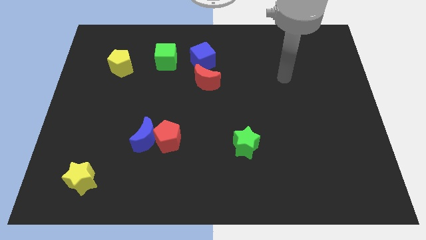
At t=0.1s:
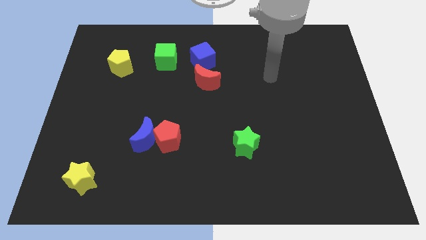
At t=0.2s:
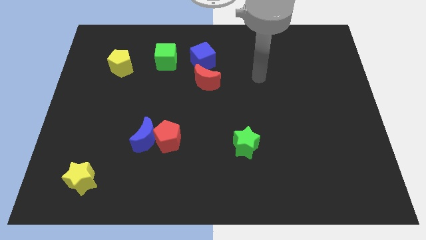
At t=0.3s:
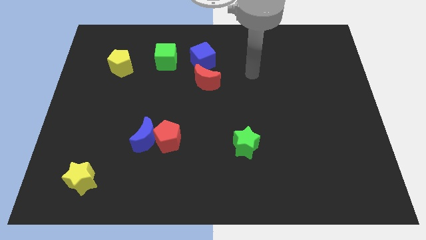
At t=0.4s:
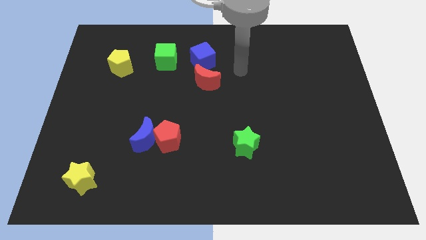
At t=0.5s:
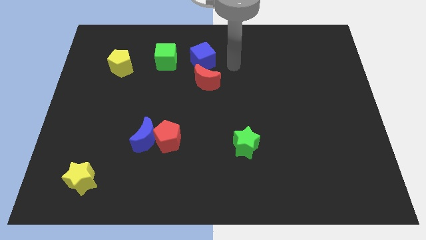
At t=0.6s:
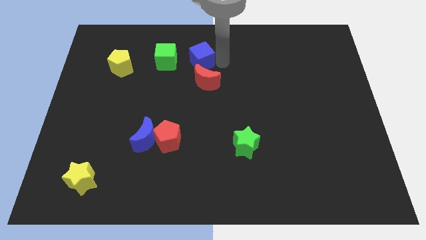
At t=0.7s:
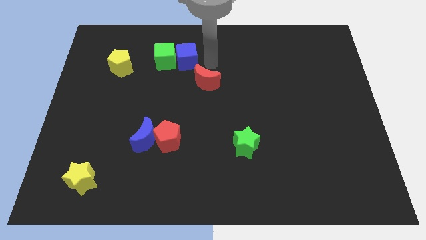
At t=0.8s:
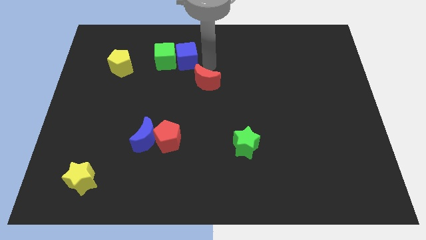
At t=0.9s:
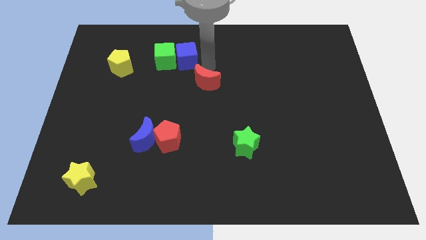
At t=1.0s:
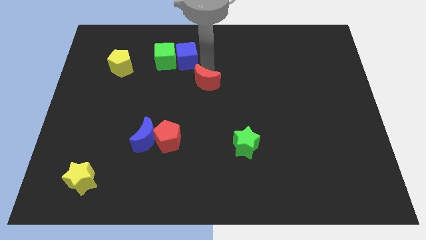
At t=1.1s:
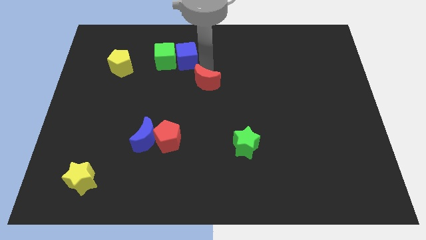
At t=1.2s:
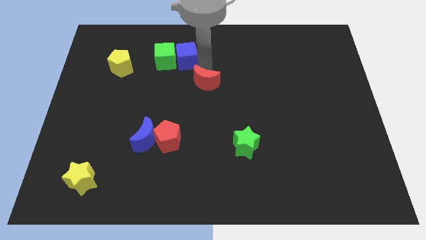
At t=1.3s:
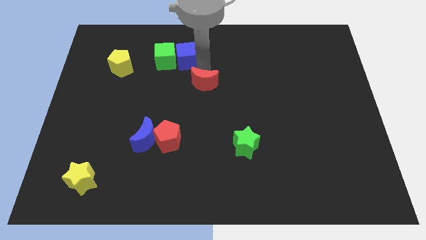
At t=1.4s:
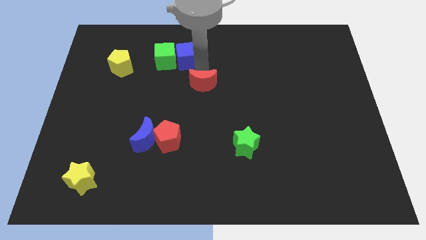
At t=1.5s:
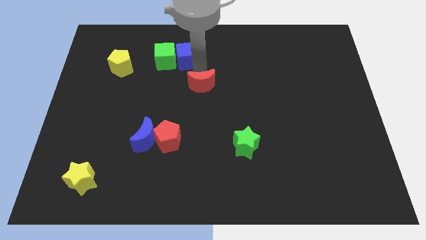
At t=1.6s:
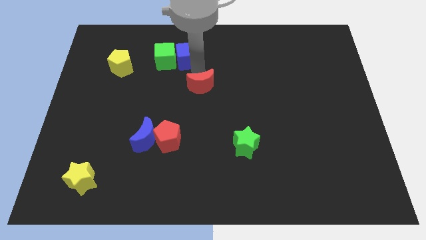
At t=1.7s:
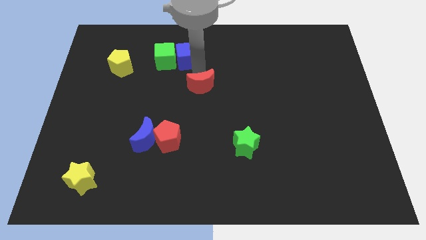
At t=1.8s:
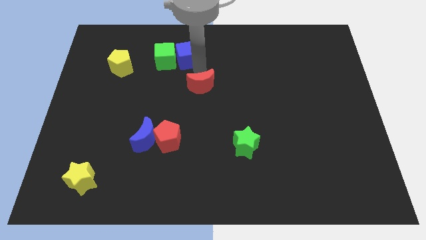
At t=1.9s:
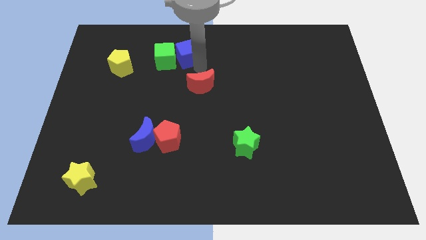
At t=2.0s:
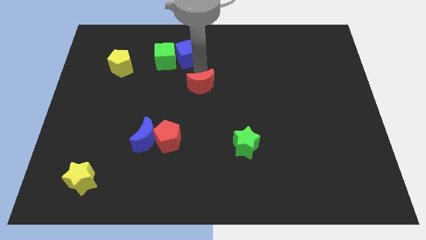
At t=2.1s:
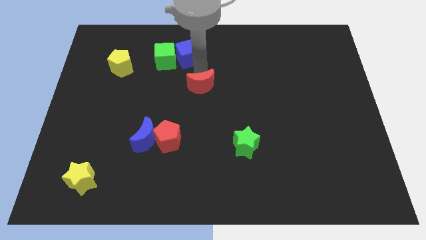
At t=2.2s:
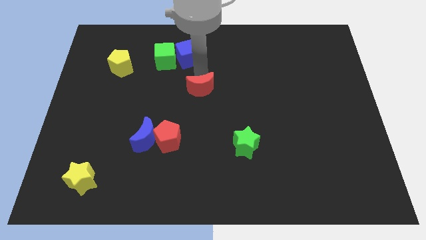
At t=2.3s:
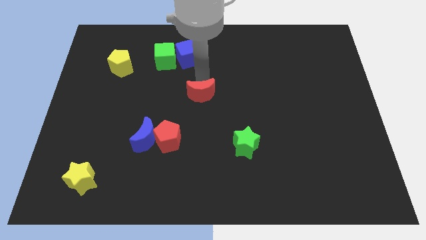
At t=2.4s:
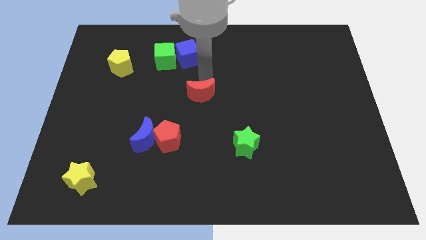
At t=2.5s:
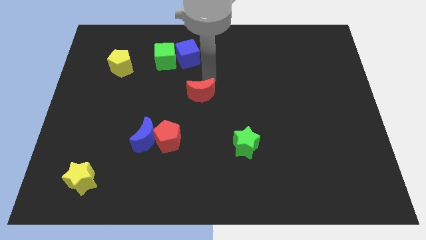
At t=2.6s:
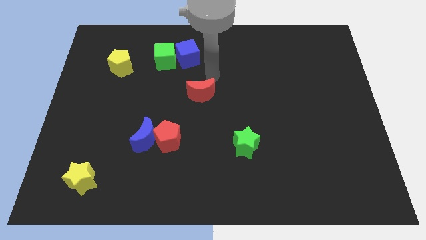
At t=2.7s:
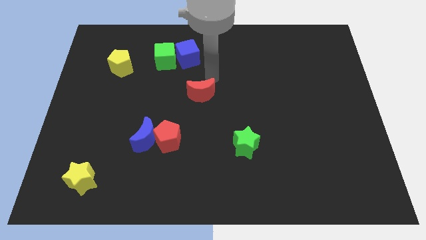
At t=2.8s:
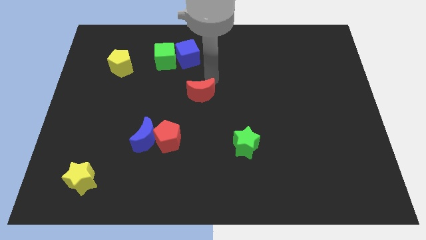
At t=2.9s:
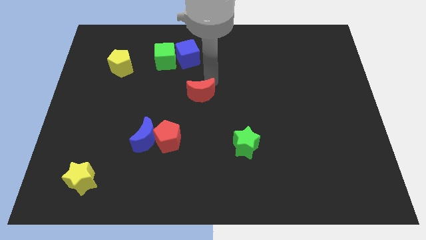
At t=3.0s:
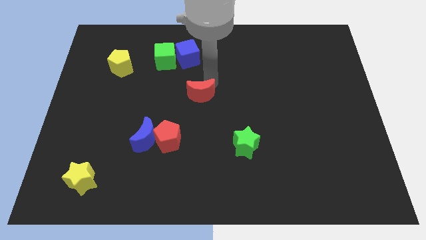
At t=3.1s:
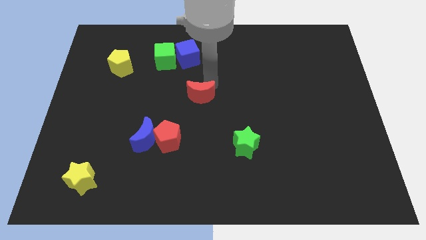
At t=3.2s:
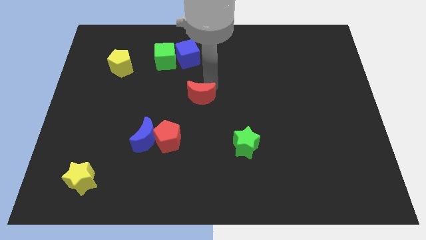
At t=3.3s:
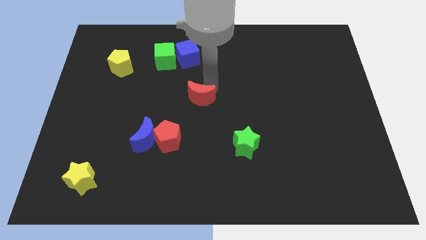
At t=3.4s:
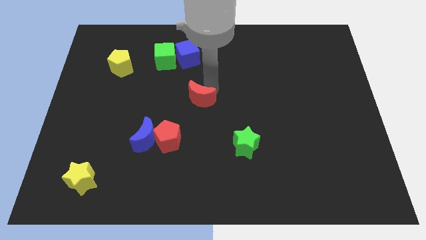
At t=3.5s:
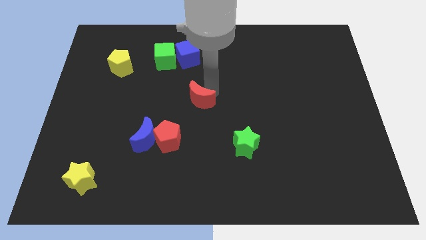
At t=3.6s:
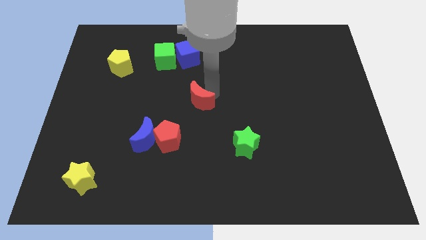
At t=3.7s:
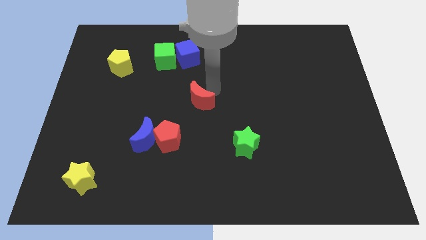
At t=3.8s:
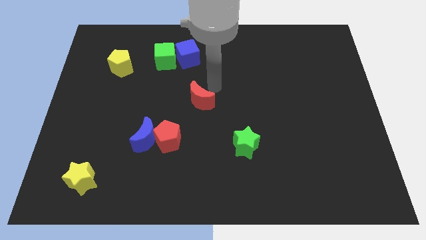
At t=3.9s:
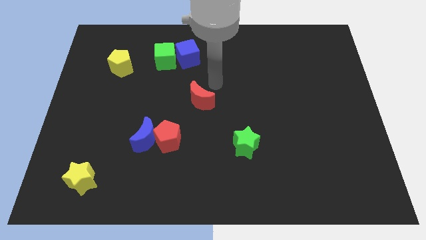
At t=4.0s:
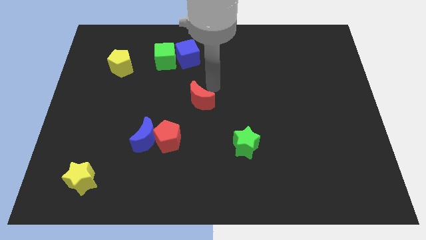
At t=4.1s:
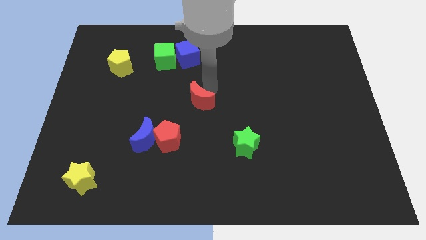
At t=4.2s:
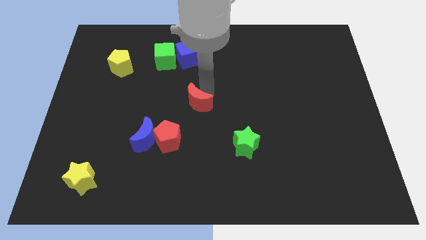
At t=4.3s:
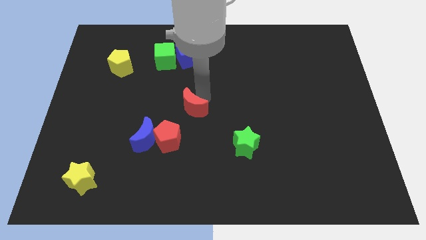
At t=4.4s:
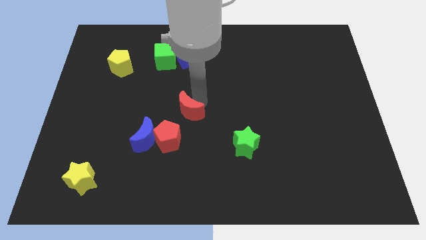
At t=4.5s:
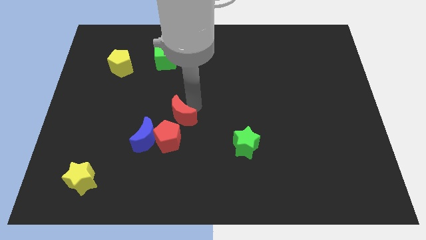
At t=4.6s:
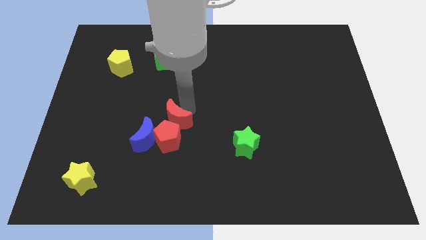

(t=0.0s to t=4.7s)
put the red moon close to the red pentagon

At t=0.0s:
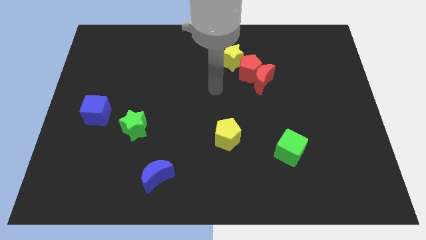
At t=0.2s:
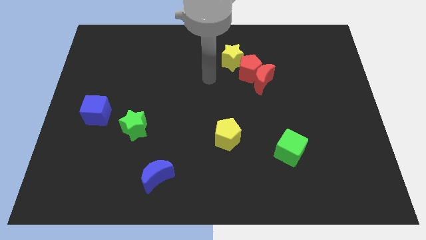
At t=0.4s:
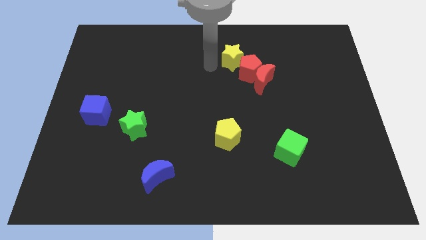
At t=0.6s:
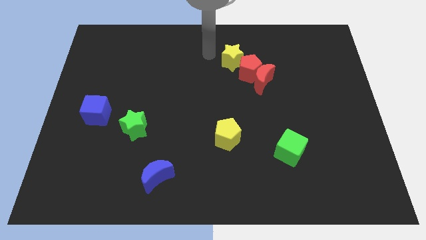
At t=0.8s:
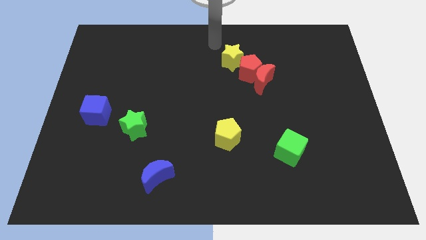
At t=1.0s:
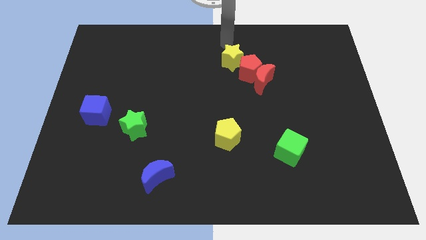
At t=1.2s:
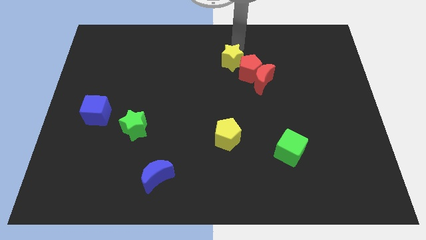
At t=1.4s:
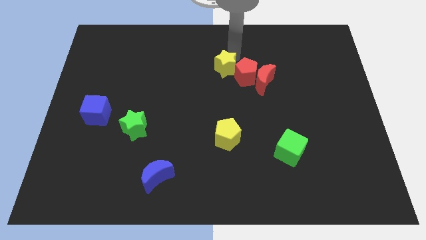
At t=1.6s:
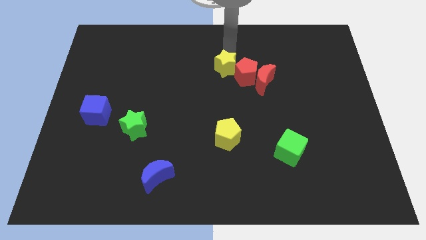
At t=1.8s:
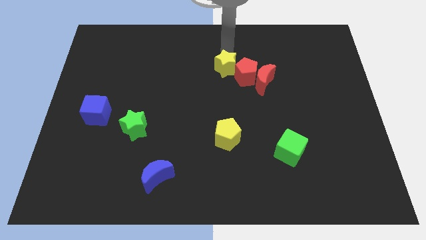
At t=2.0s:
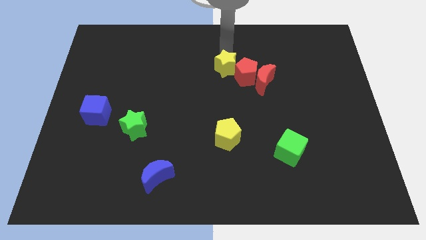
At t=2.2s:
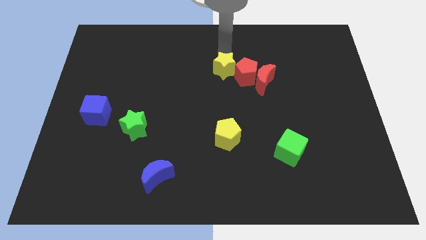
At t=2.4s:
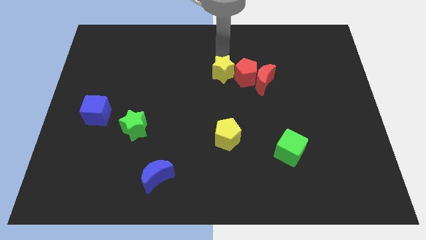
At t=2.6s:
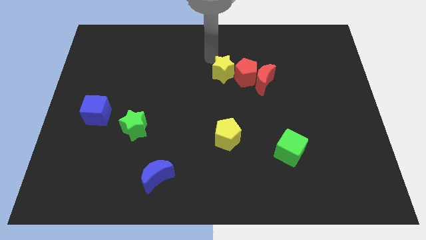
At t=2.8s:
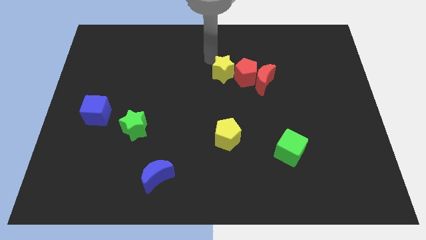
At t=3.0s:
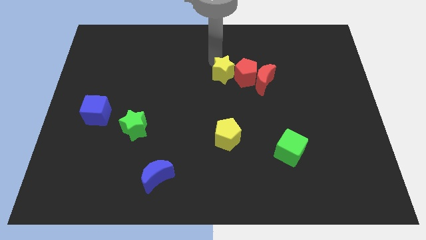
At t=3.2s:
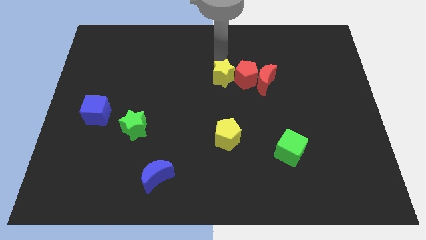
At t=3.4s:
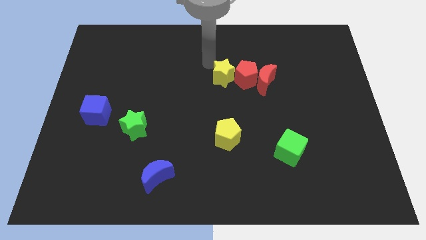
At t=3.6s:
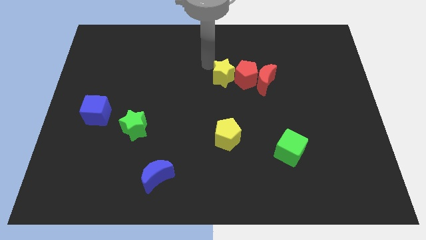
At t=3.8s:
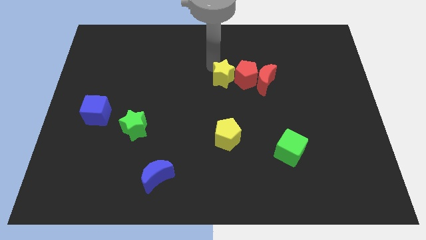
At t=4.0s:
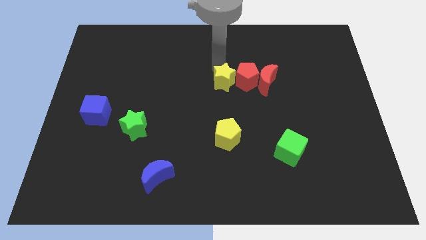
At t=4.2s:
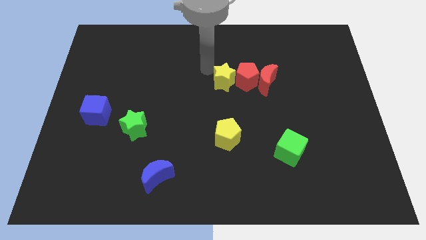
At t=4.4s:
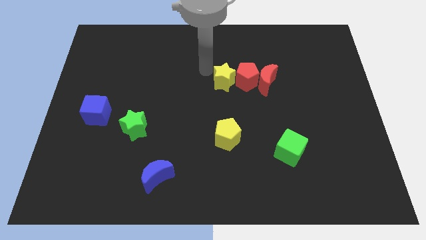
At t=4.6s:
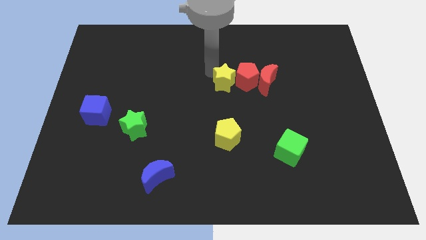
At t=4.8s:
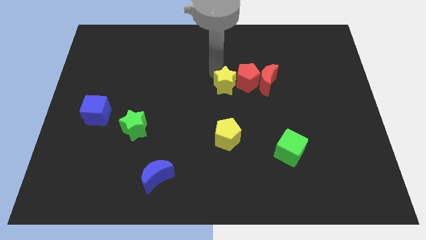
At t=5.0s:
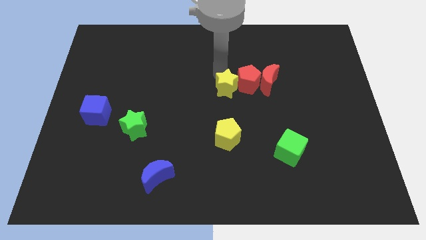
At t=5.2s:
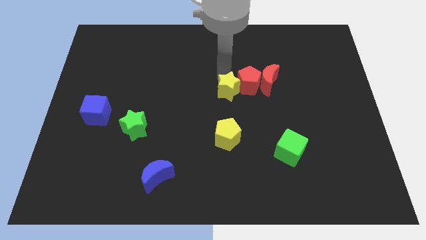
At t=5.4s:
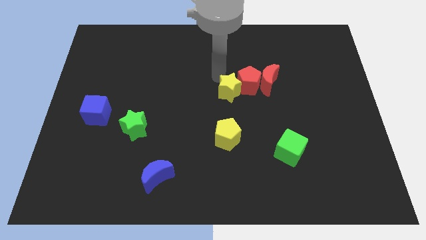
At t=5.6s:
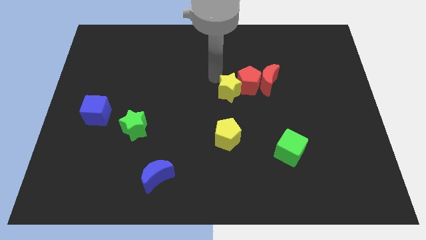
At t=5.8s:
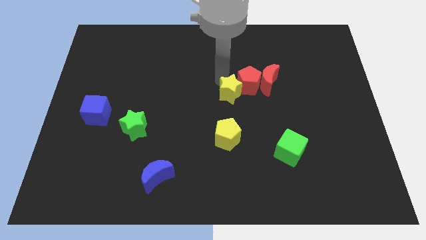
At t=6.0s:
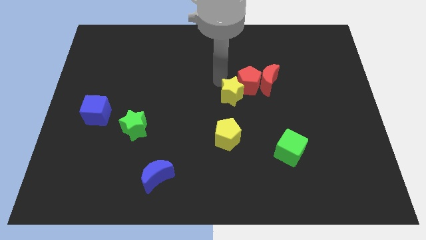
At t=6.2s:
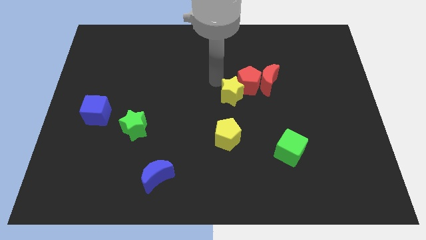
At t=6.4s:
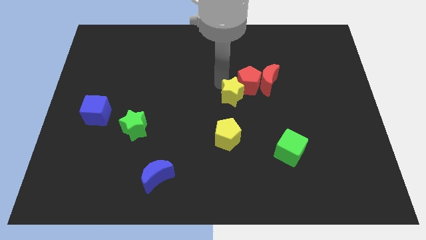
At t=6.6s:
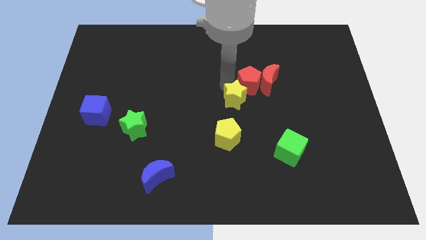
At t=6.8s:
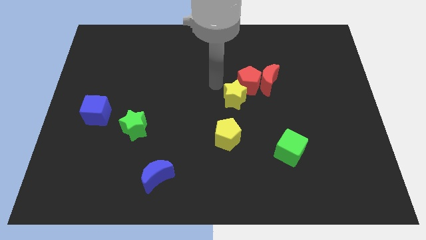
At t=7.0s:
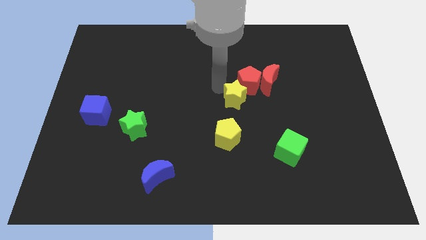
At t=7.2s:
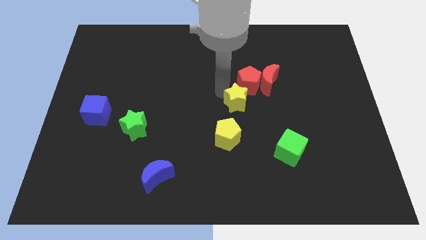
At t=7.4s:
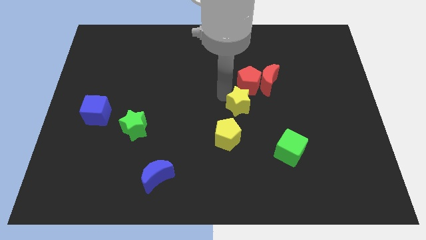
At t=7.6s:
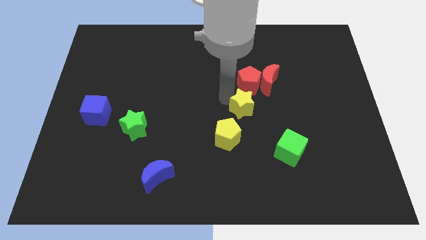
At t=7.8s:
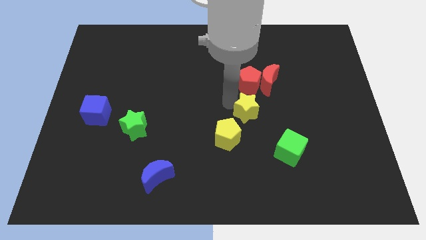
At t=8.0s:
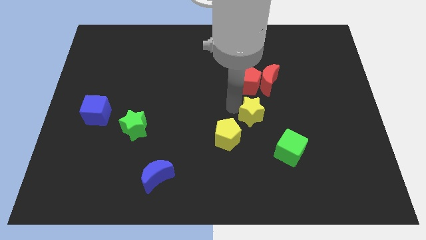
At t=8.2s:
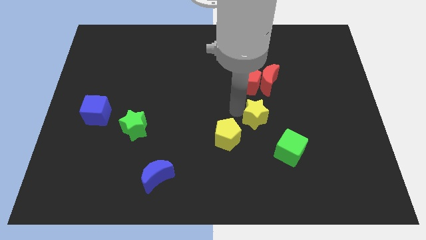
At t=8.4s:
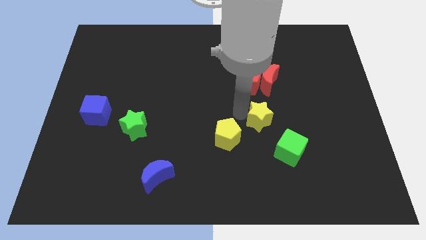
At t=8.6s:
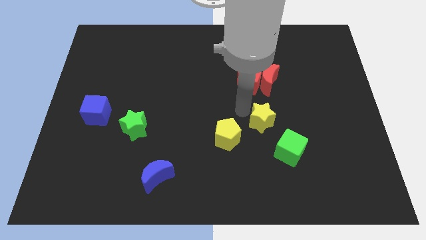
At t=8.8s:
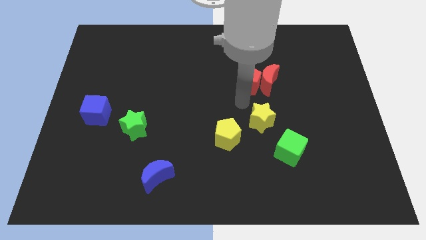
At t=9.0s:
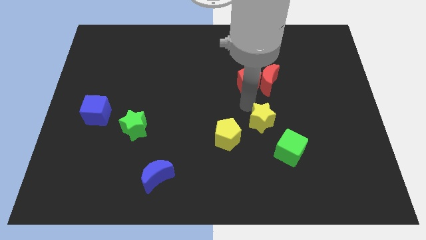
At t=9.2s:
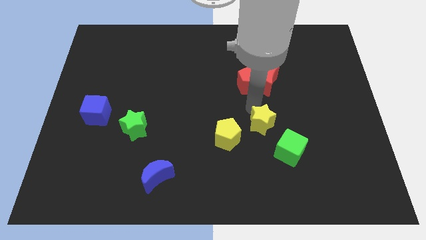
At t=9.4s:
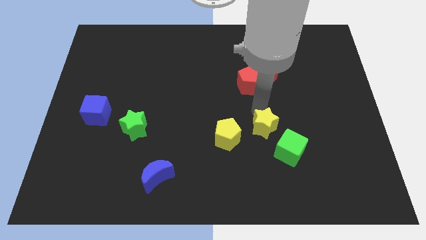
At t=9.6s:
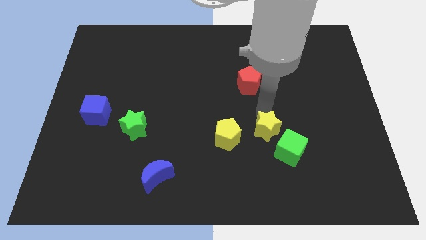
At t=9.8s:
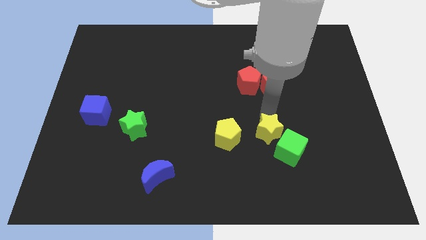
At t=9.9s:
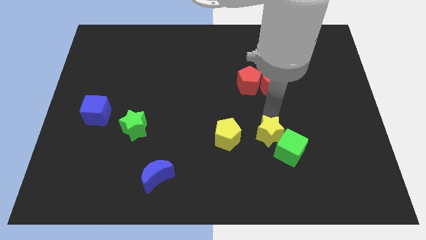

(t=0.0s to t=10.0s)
push the yellow star to the green cube
